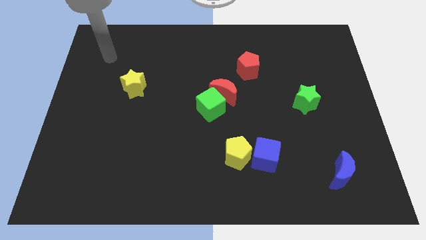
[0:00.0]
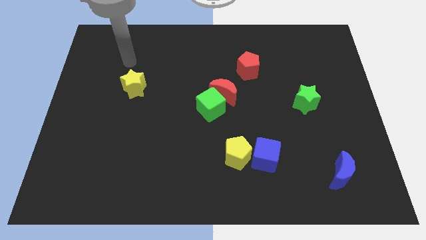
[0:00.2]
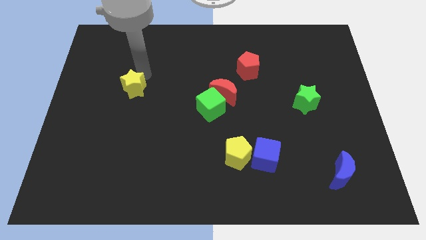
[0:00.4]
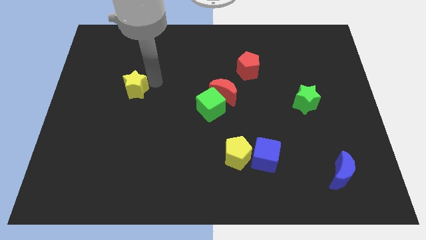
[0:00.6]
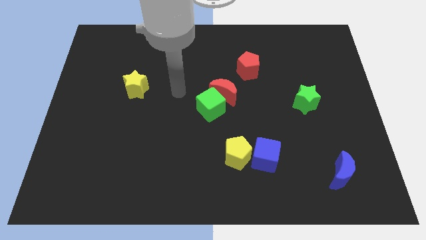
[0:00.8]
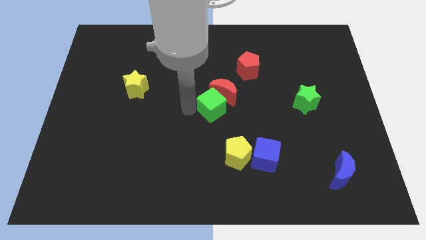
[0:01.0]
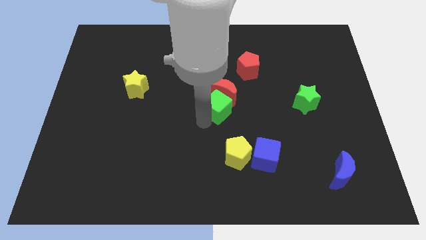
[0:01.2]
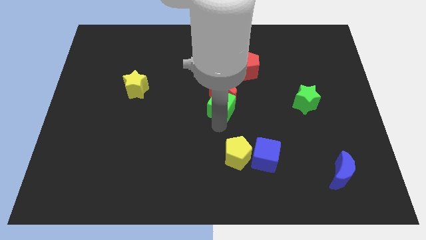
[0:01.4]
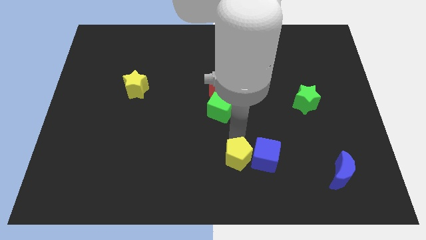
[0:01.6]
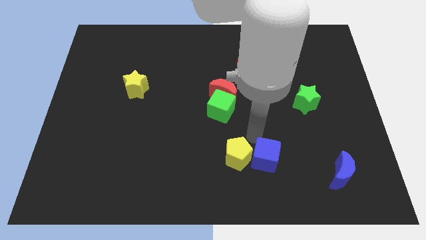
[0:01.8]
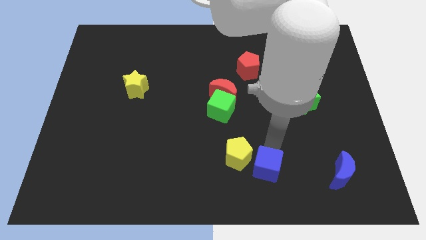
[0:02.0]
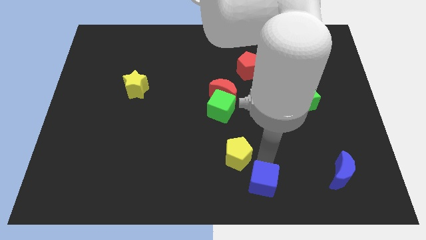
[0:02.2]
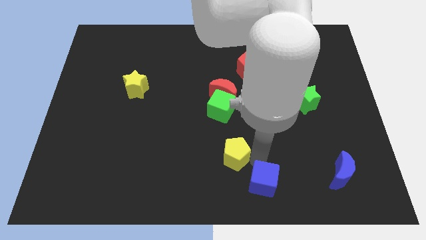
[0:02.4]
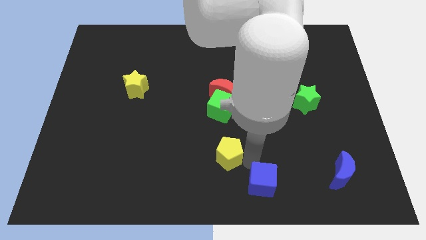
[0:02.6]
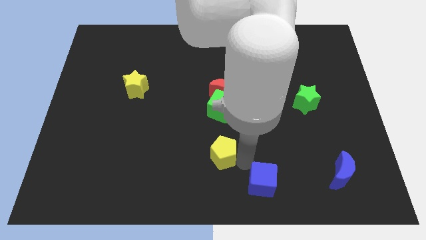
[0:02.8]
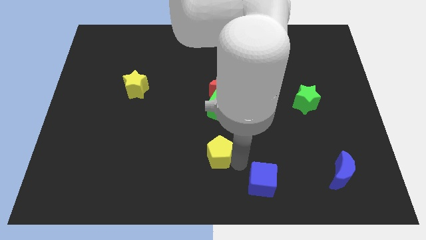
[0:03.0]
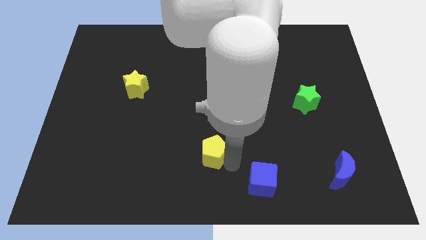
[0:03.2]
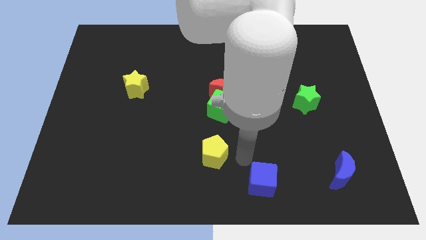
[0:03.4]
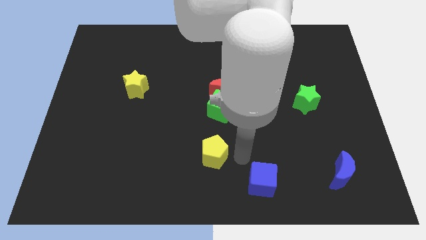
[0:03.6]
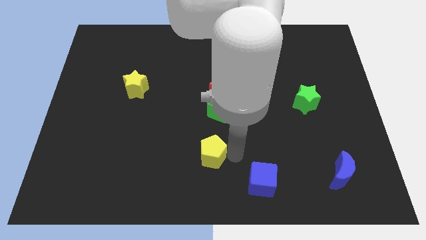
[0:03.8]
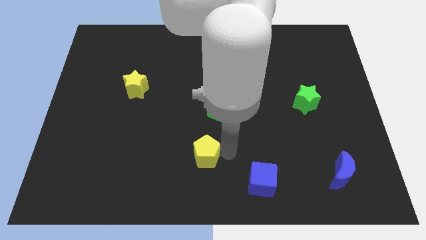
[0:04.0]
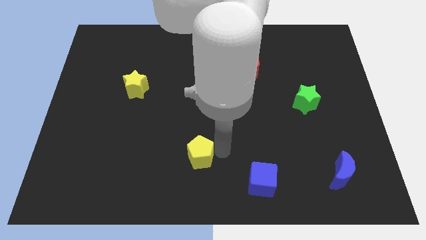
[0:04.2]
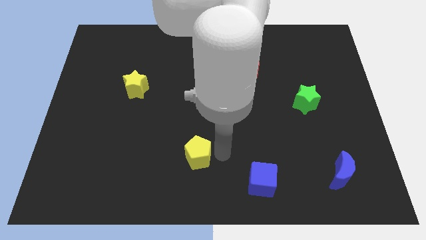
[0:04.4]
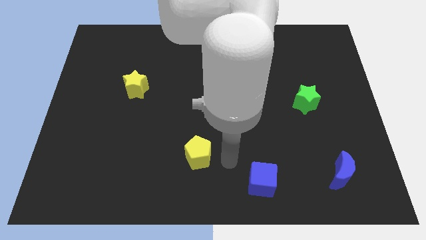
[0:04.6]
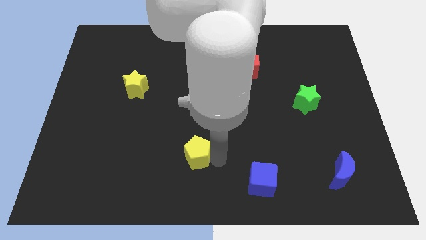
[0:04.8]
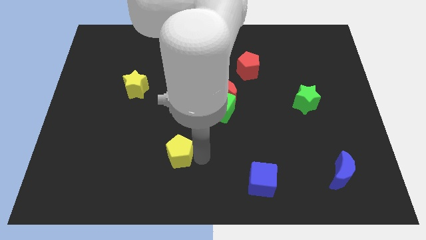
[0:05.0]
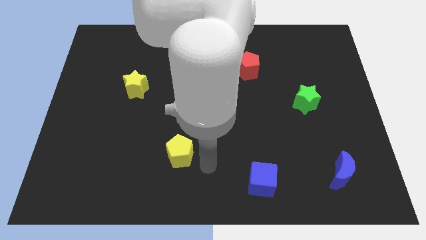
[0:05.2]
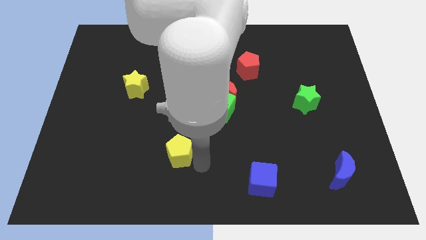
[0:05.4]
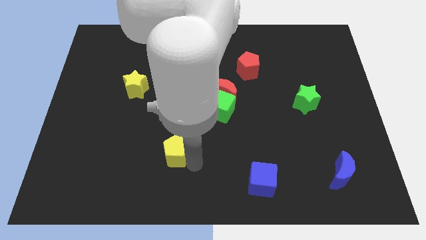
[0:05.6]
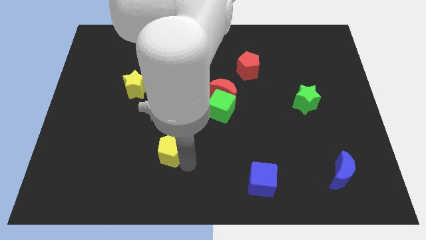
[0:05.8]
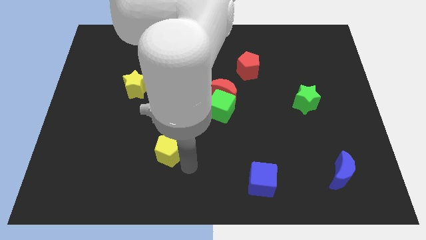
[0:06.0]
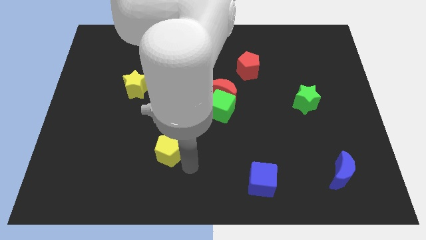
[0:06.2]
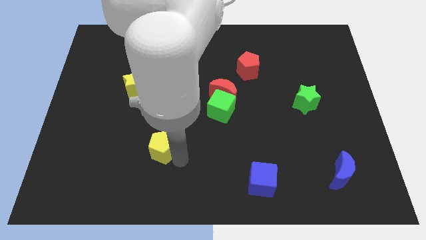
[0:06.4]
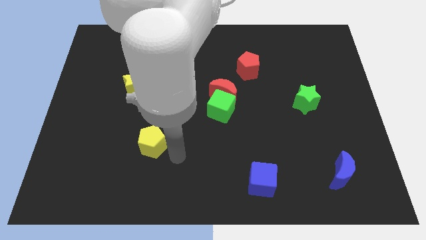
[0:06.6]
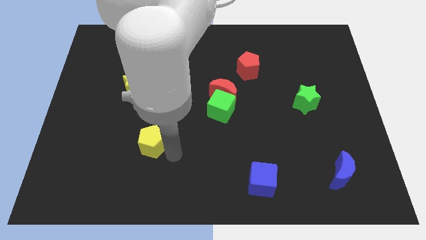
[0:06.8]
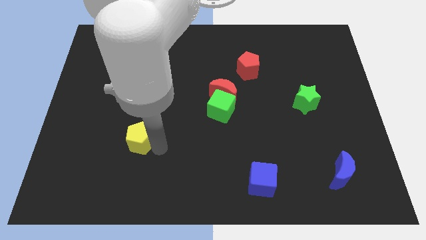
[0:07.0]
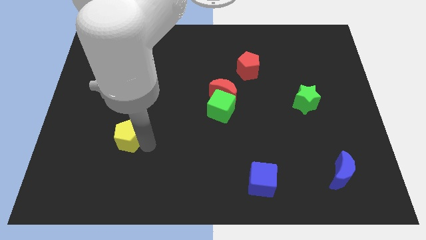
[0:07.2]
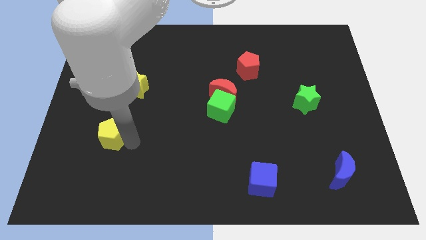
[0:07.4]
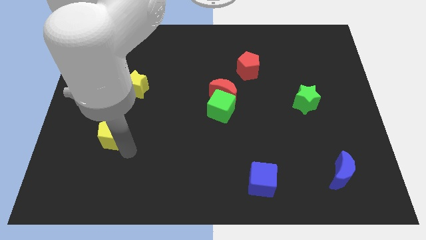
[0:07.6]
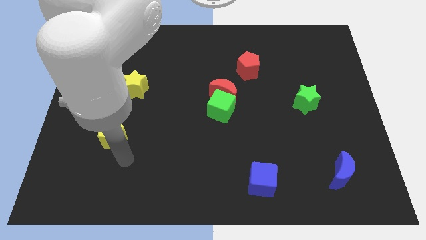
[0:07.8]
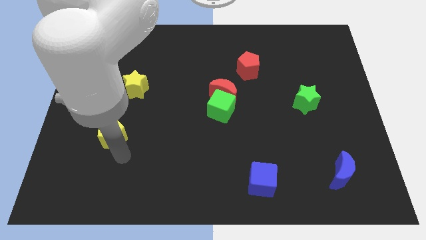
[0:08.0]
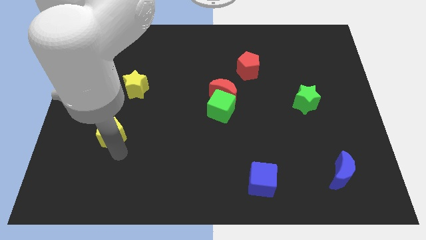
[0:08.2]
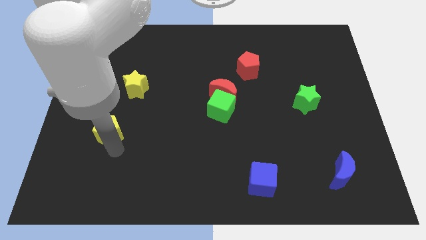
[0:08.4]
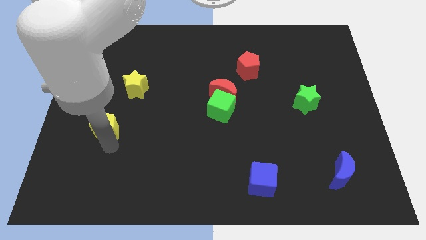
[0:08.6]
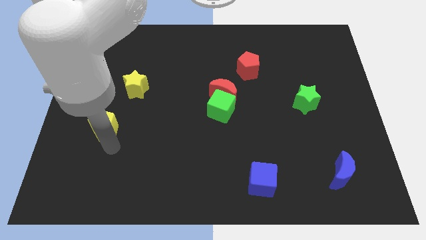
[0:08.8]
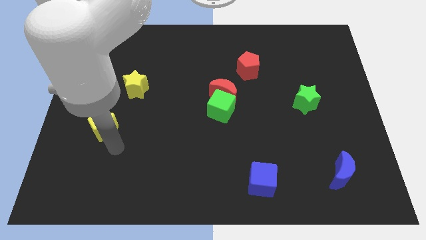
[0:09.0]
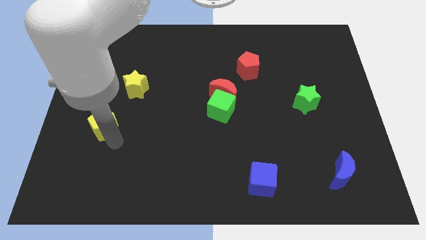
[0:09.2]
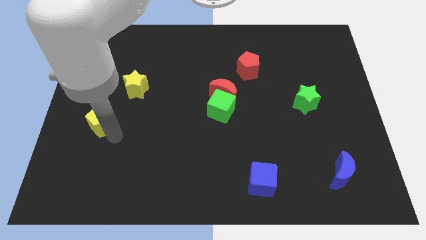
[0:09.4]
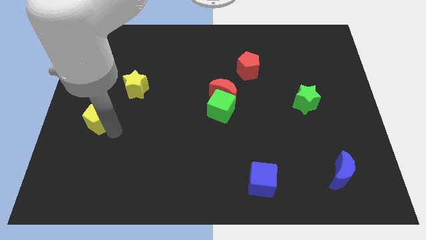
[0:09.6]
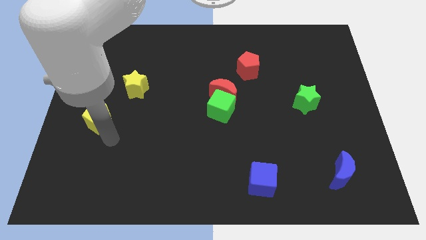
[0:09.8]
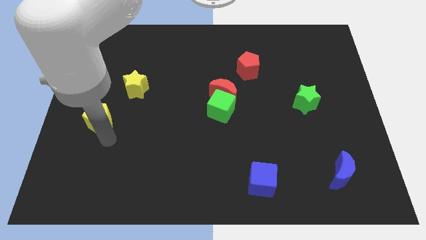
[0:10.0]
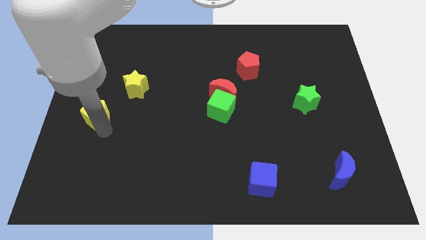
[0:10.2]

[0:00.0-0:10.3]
slide the yellow pentagon to the left side of the board

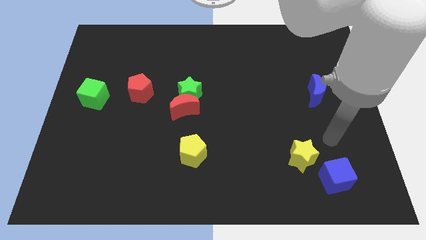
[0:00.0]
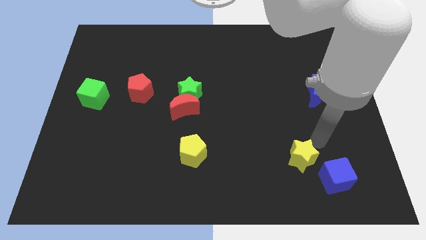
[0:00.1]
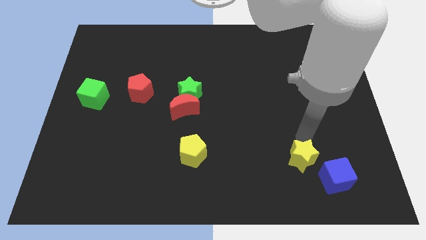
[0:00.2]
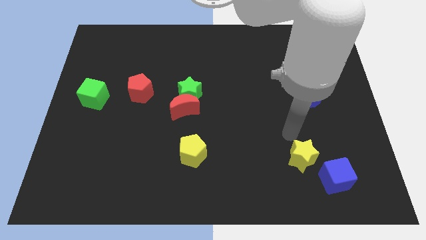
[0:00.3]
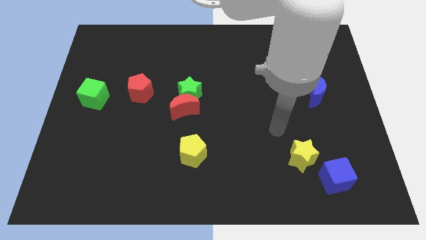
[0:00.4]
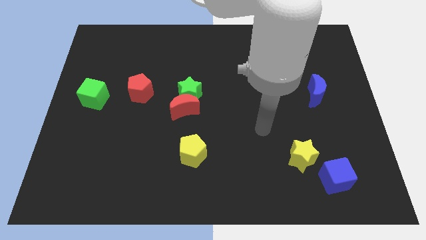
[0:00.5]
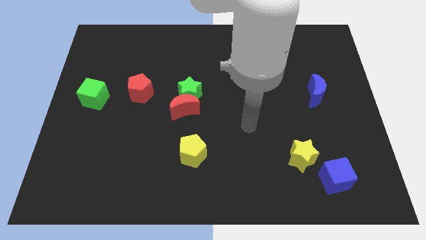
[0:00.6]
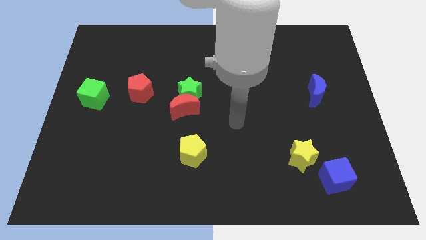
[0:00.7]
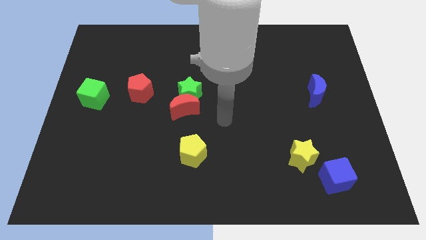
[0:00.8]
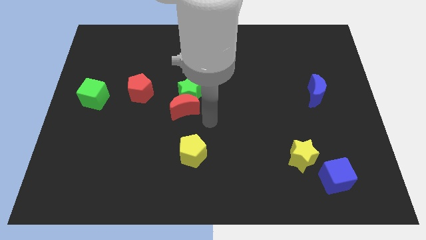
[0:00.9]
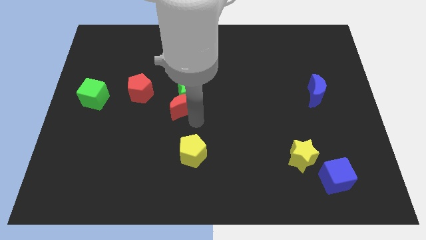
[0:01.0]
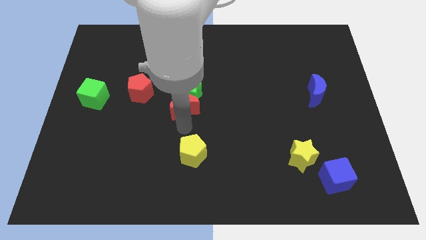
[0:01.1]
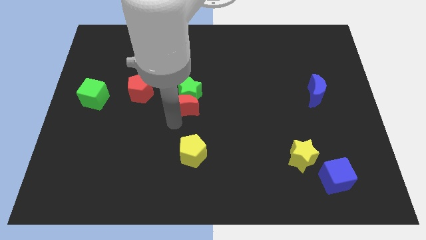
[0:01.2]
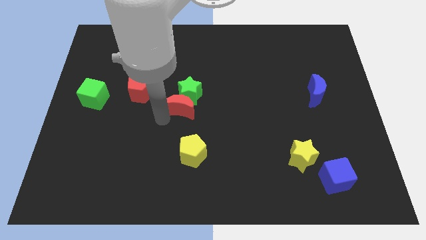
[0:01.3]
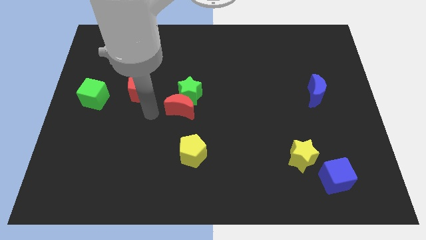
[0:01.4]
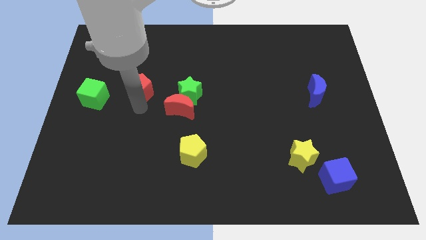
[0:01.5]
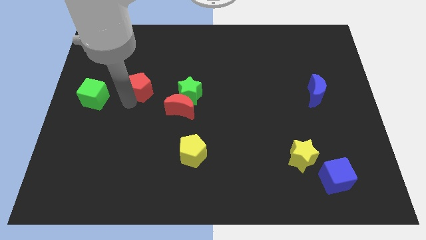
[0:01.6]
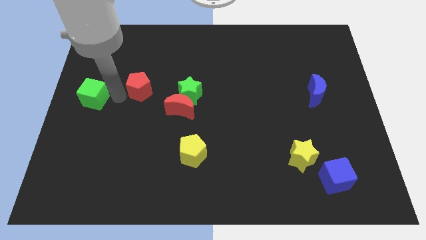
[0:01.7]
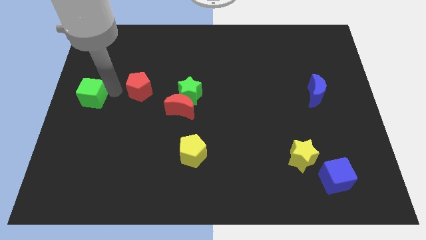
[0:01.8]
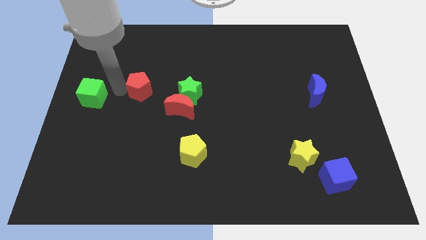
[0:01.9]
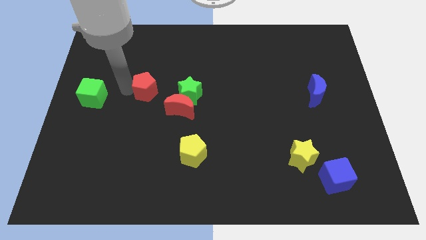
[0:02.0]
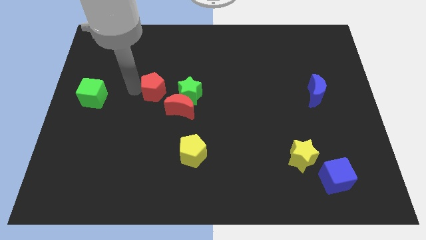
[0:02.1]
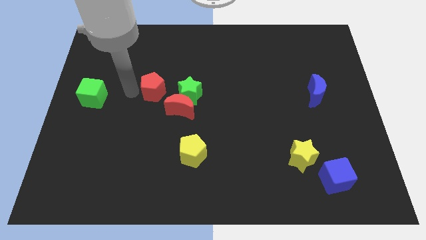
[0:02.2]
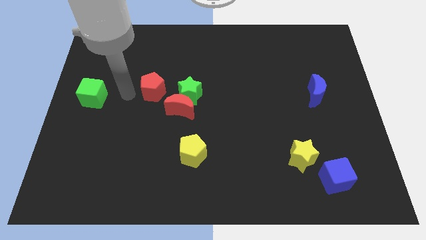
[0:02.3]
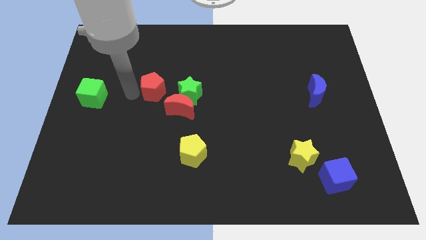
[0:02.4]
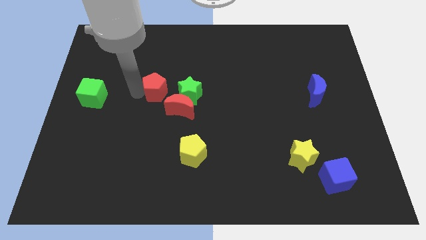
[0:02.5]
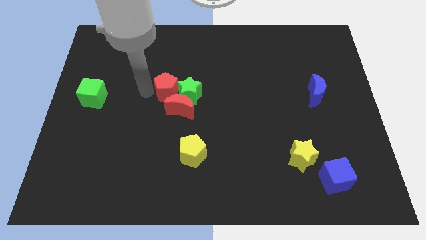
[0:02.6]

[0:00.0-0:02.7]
slide the red pentagon to the middle
